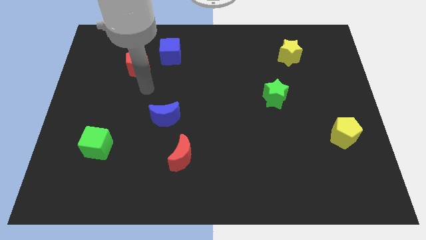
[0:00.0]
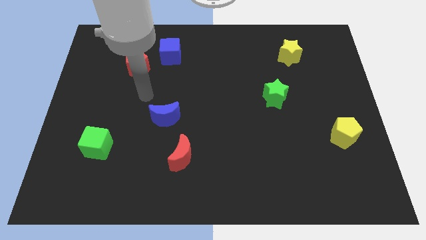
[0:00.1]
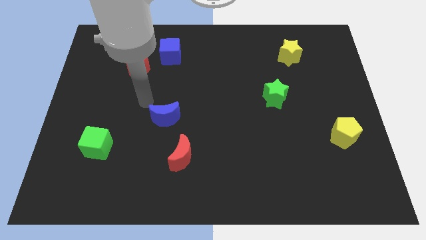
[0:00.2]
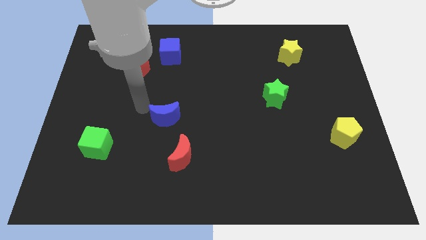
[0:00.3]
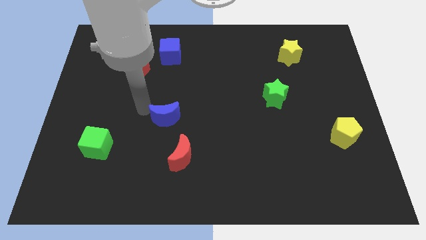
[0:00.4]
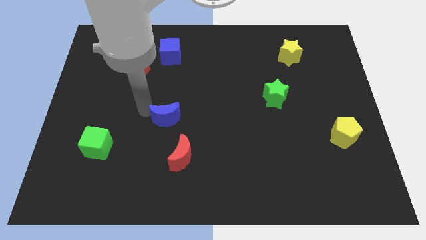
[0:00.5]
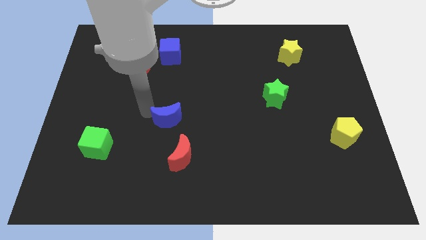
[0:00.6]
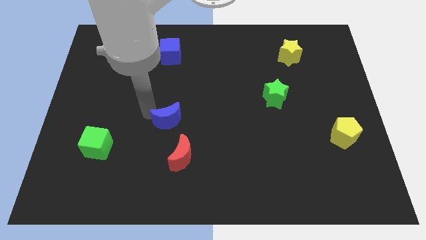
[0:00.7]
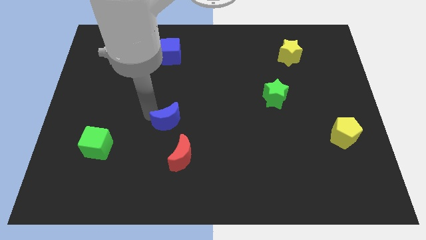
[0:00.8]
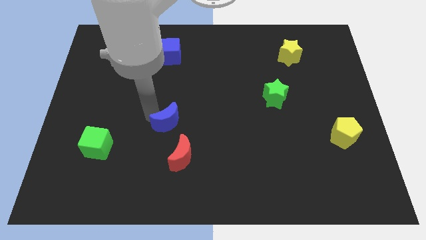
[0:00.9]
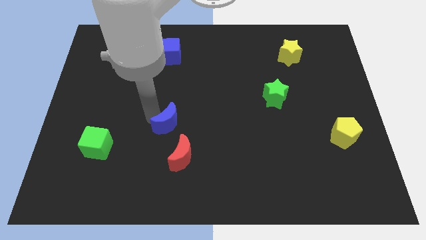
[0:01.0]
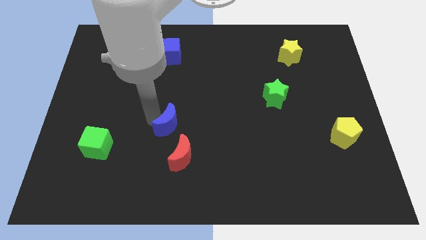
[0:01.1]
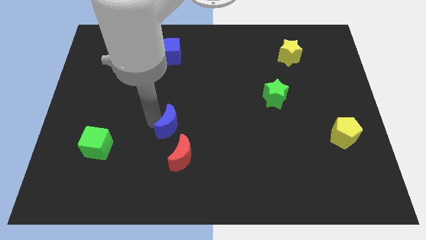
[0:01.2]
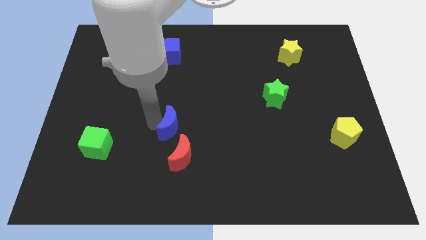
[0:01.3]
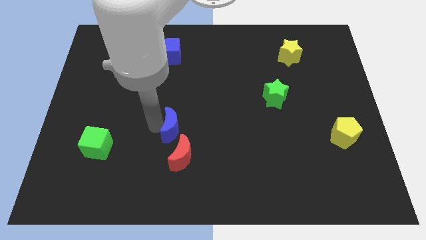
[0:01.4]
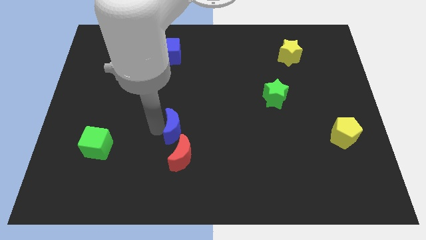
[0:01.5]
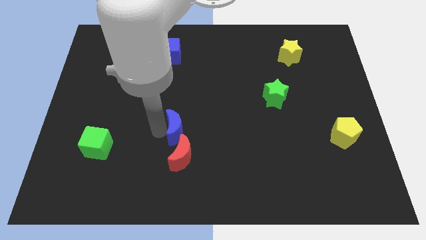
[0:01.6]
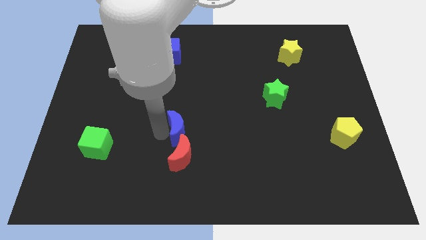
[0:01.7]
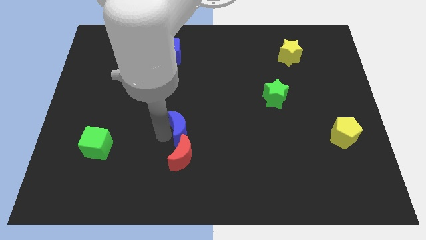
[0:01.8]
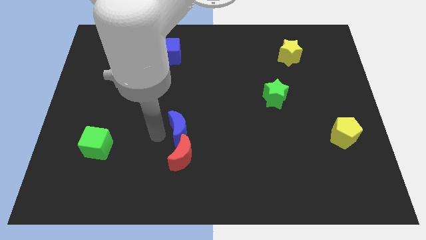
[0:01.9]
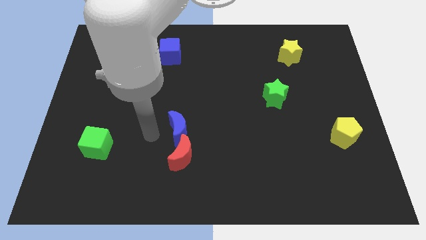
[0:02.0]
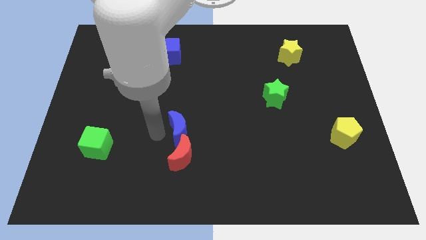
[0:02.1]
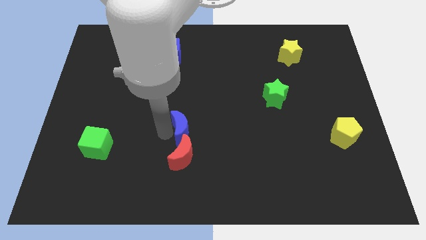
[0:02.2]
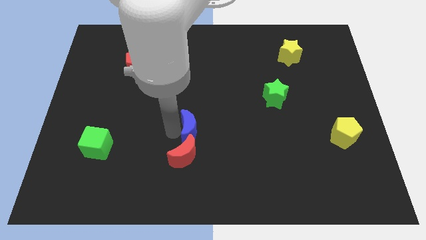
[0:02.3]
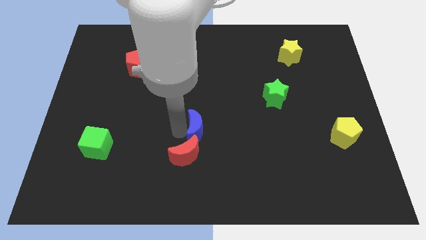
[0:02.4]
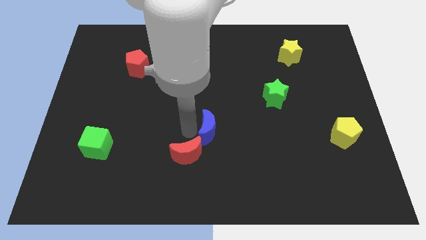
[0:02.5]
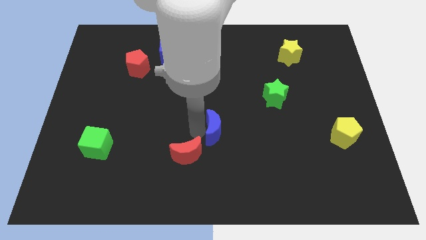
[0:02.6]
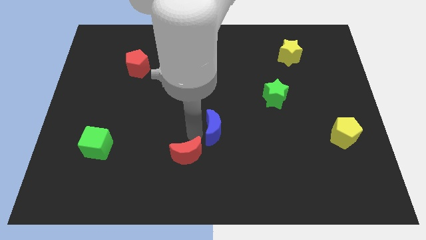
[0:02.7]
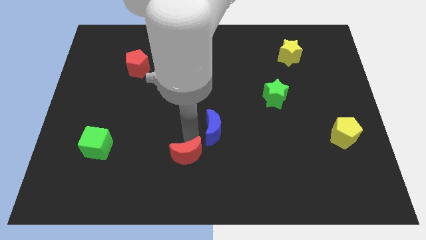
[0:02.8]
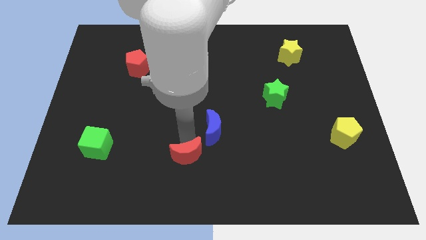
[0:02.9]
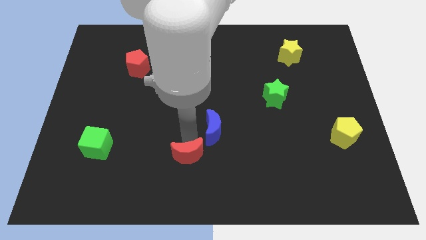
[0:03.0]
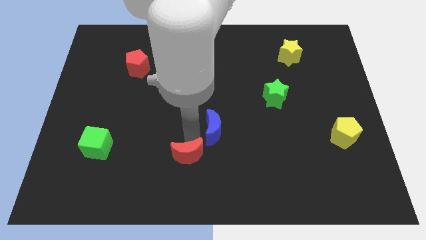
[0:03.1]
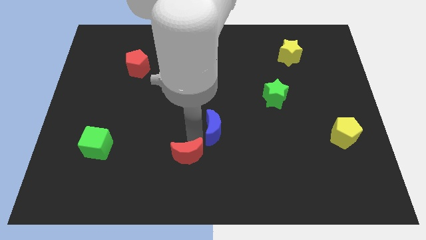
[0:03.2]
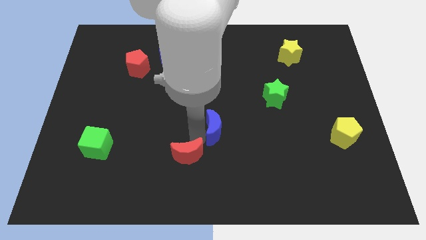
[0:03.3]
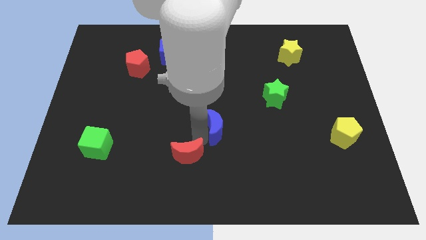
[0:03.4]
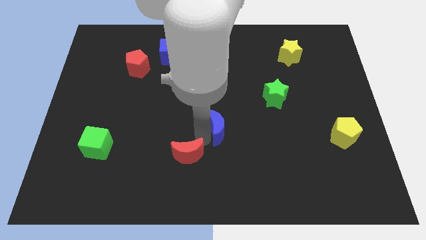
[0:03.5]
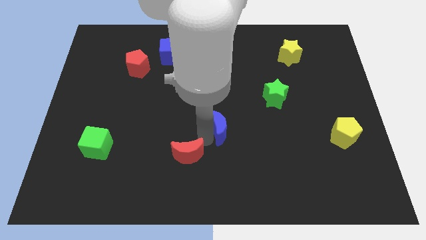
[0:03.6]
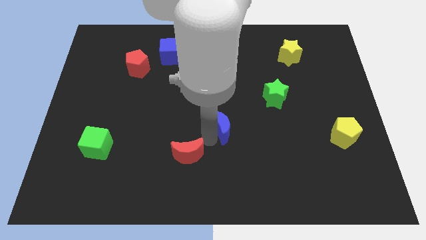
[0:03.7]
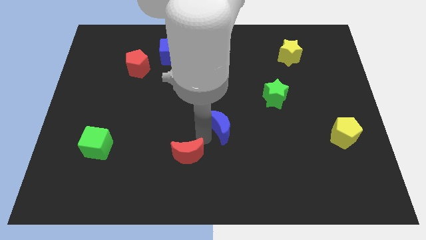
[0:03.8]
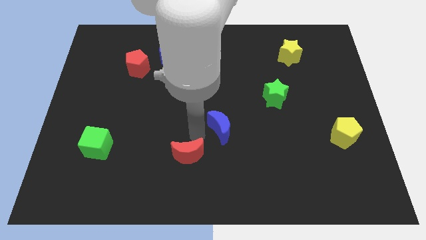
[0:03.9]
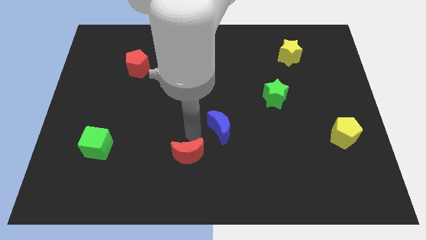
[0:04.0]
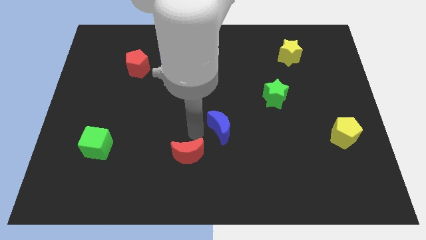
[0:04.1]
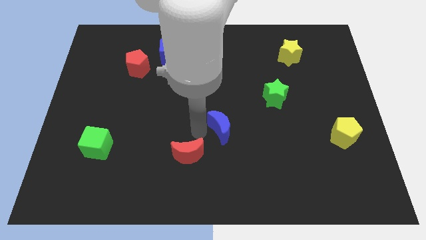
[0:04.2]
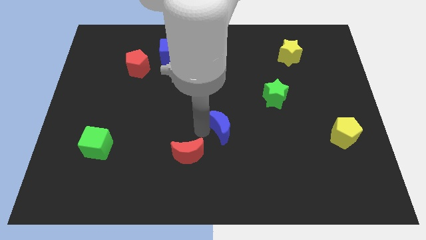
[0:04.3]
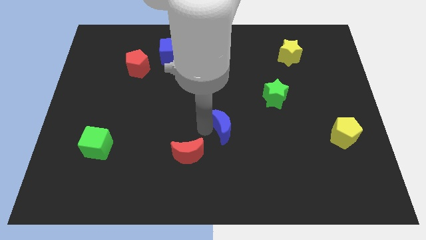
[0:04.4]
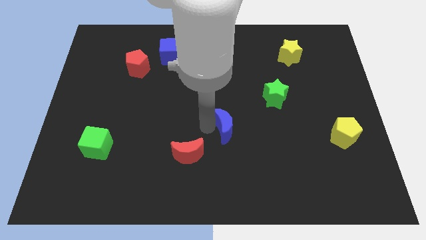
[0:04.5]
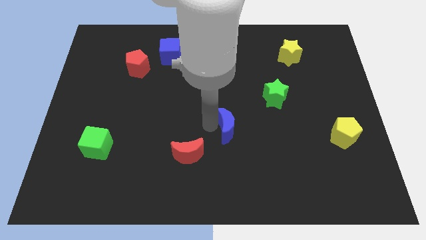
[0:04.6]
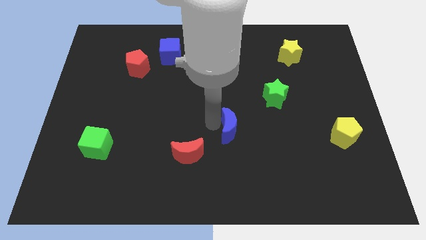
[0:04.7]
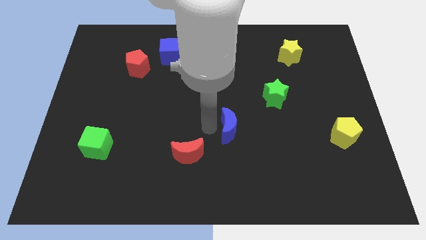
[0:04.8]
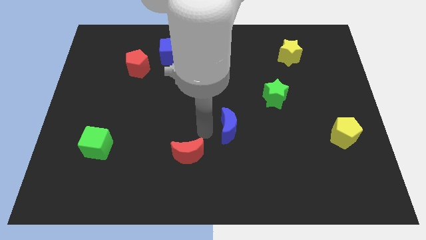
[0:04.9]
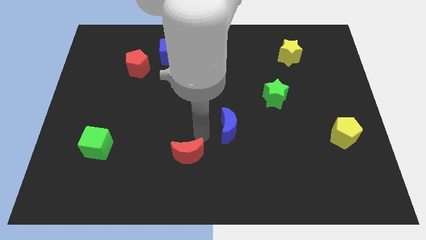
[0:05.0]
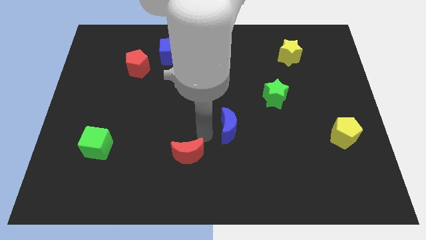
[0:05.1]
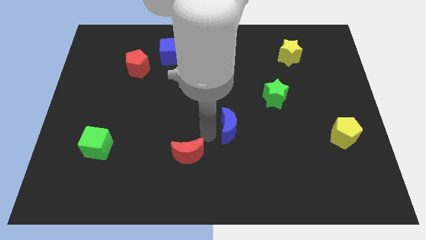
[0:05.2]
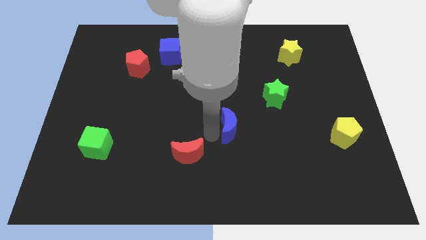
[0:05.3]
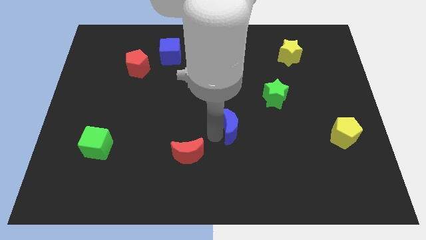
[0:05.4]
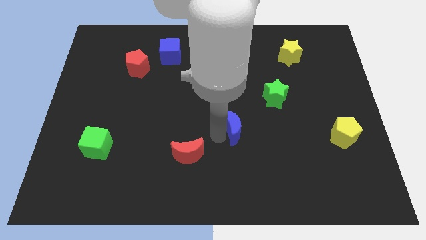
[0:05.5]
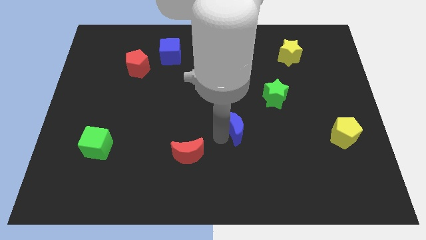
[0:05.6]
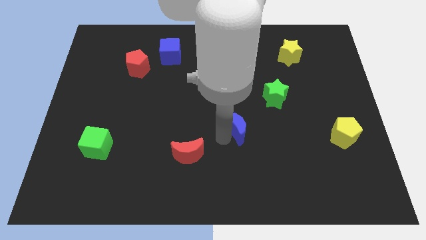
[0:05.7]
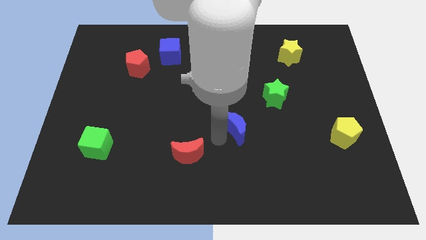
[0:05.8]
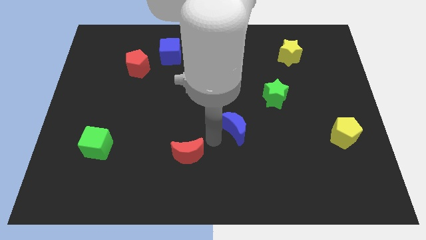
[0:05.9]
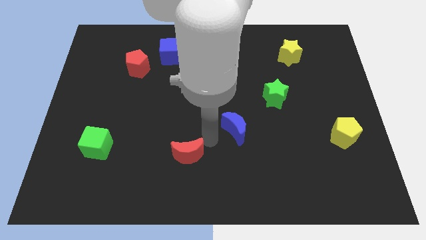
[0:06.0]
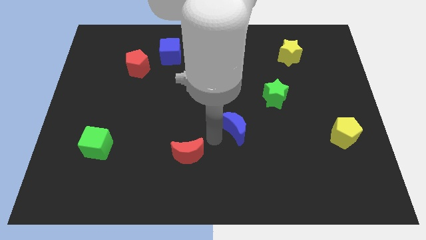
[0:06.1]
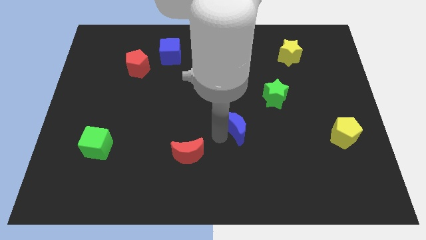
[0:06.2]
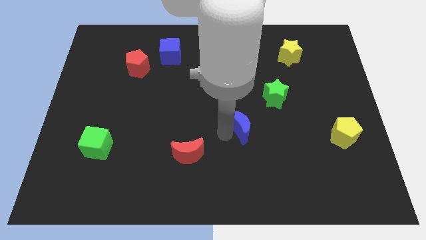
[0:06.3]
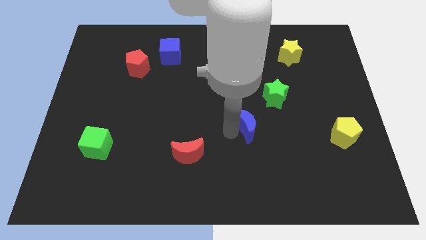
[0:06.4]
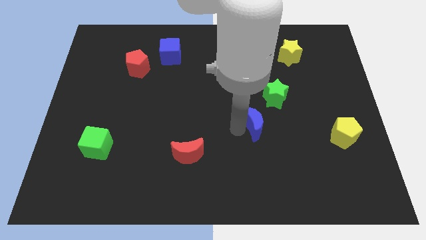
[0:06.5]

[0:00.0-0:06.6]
move the blue moon to the right

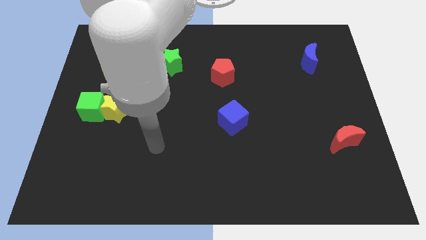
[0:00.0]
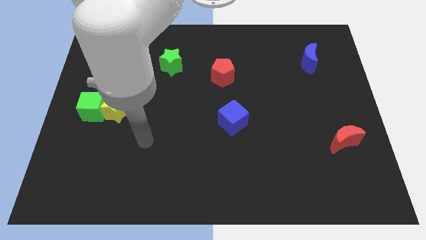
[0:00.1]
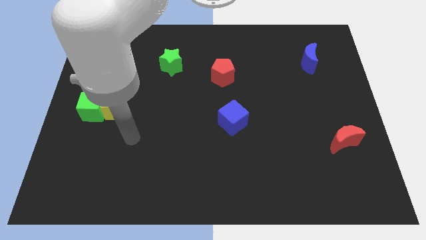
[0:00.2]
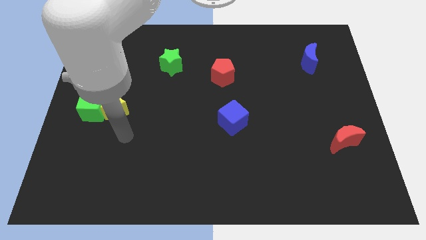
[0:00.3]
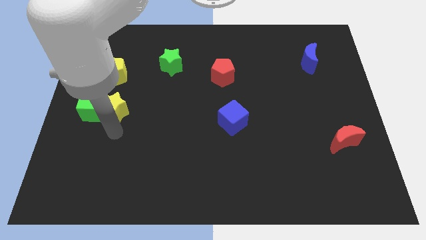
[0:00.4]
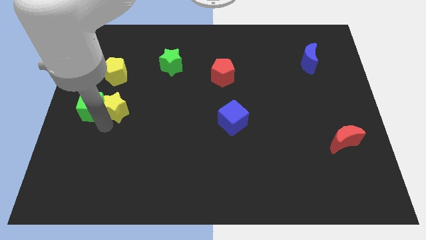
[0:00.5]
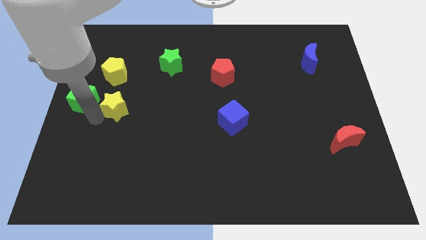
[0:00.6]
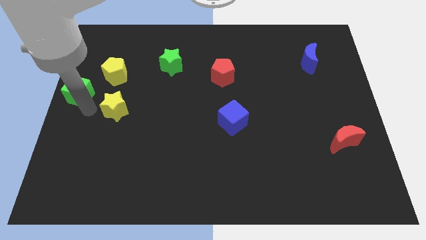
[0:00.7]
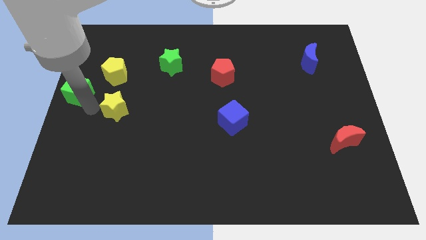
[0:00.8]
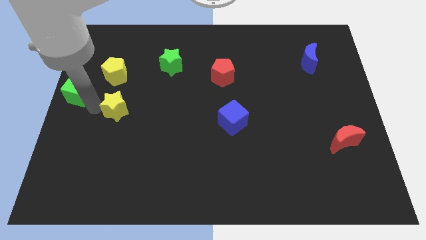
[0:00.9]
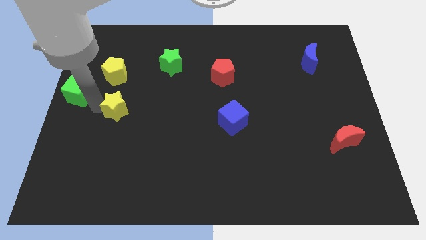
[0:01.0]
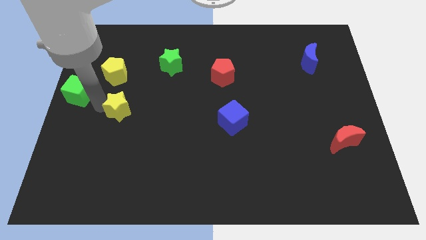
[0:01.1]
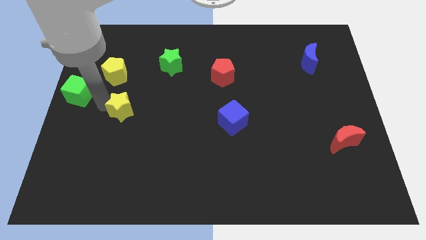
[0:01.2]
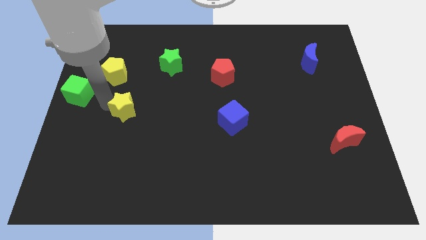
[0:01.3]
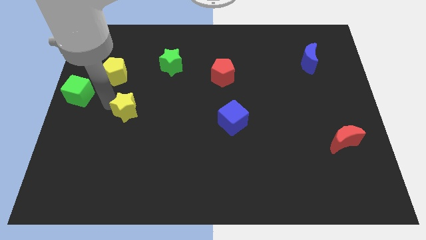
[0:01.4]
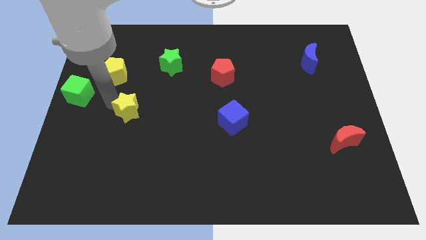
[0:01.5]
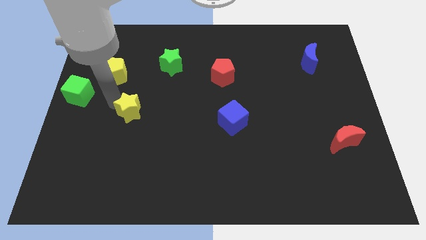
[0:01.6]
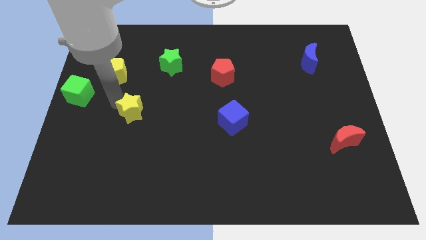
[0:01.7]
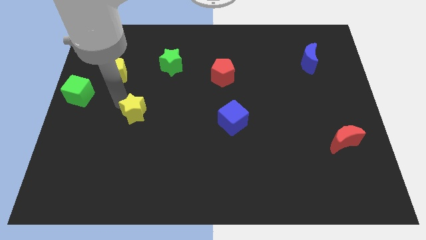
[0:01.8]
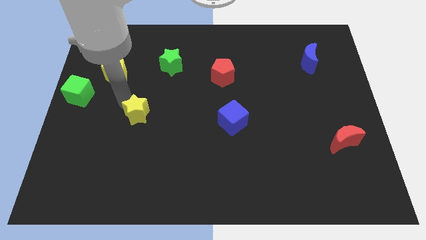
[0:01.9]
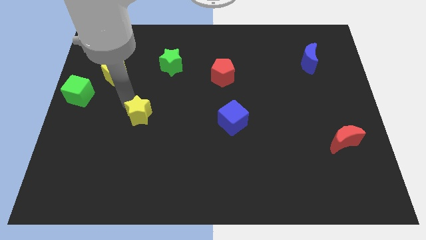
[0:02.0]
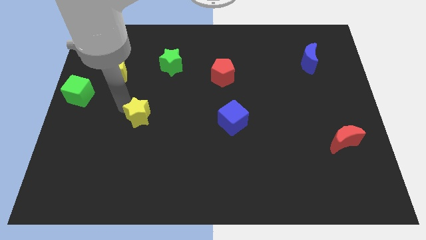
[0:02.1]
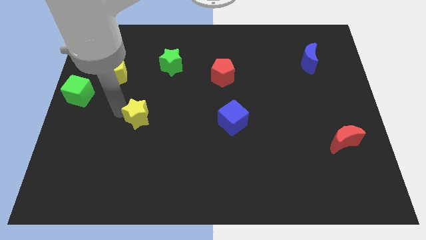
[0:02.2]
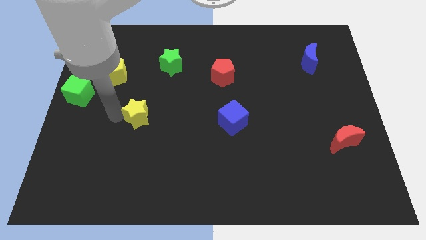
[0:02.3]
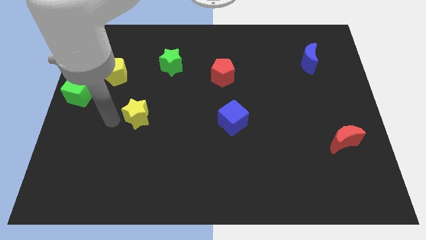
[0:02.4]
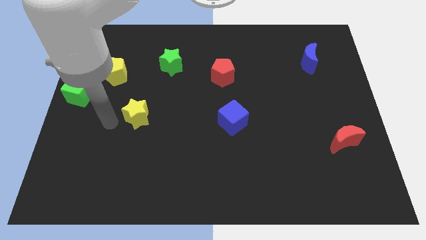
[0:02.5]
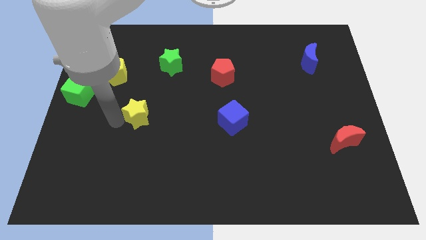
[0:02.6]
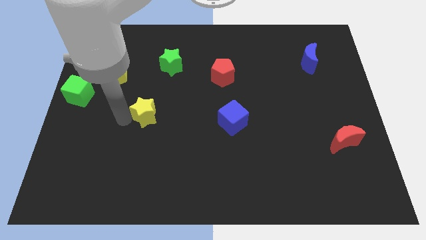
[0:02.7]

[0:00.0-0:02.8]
push the yellow star a bit right
